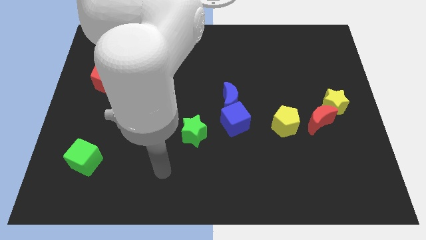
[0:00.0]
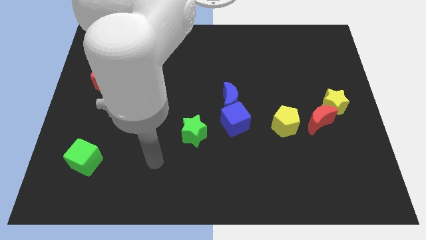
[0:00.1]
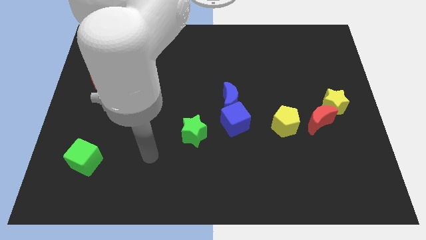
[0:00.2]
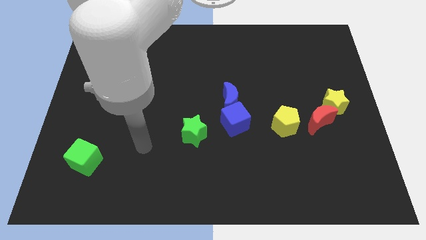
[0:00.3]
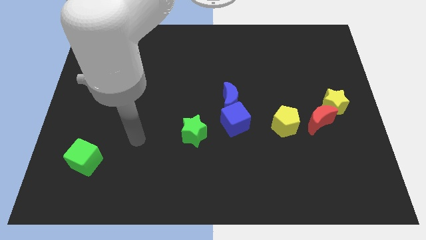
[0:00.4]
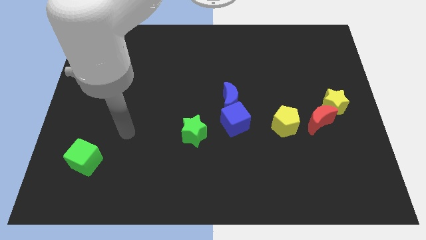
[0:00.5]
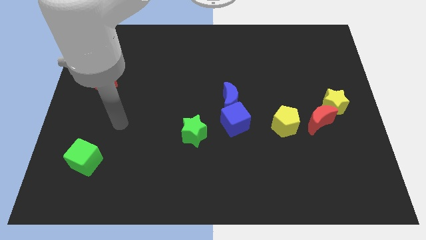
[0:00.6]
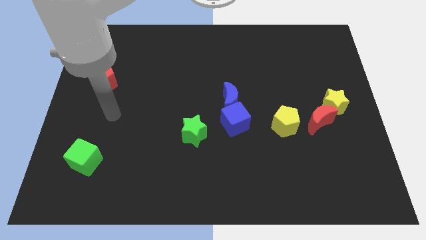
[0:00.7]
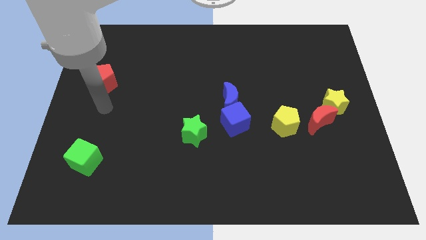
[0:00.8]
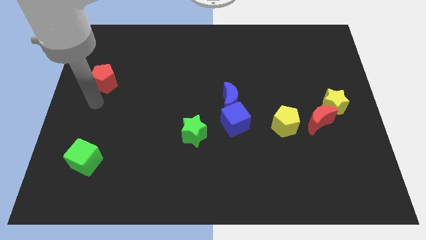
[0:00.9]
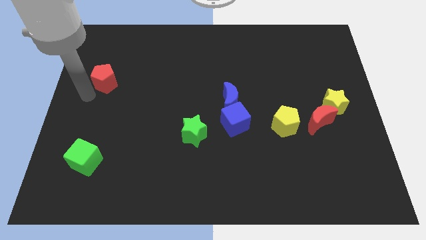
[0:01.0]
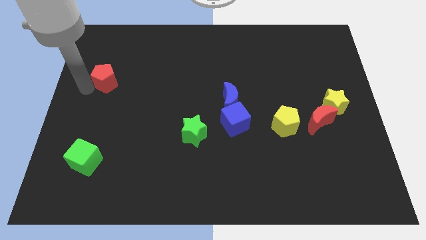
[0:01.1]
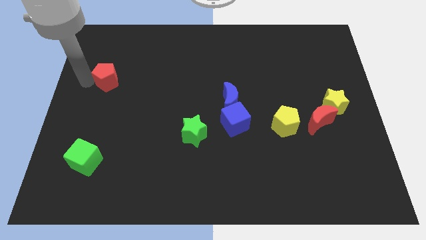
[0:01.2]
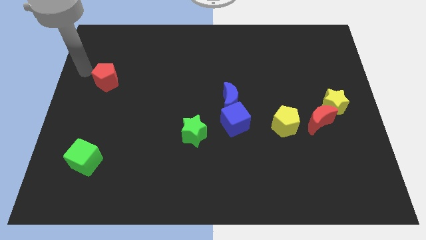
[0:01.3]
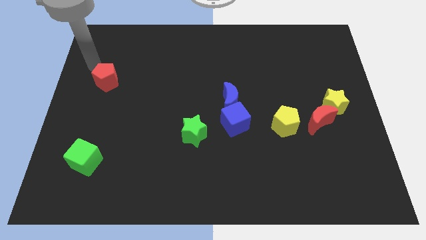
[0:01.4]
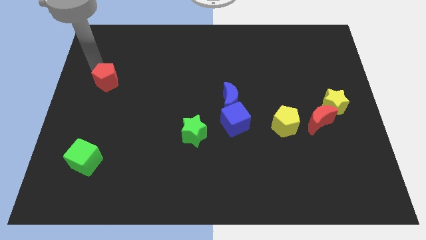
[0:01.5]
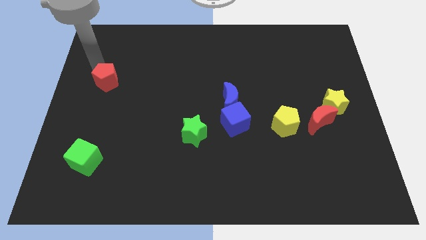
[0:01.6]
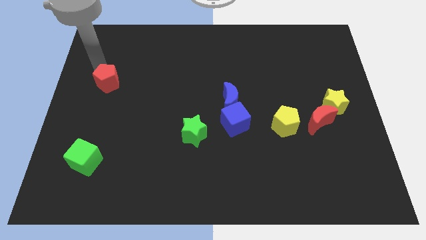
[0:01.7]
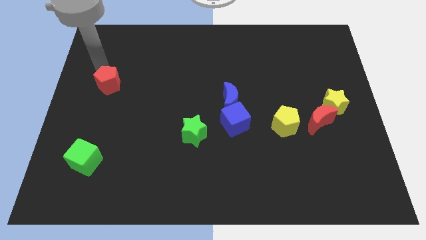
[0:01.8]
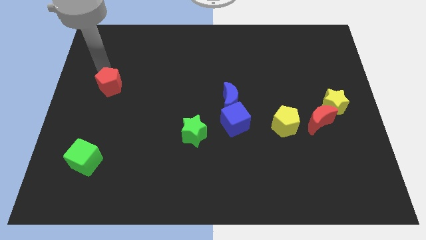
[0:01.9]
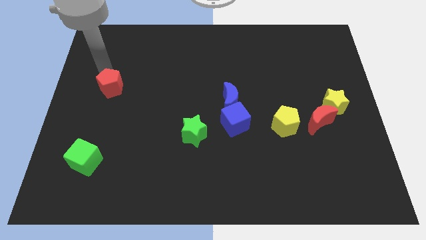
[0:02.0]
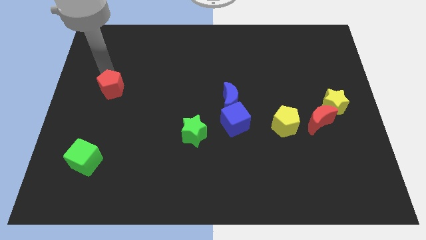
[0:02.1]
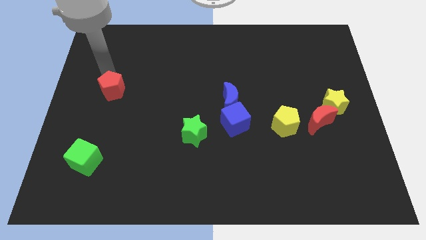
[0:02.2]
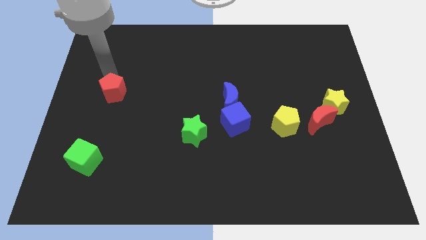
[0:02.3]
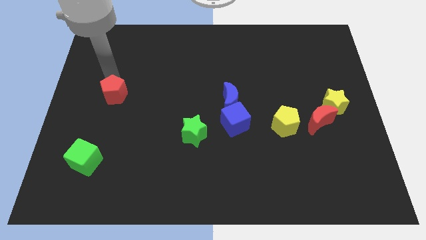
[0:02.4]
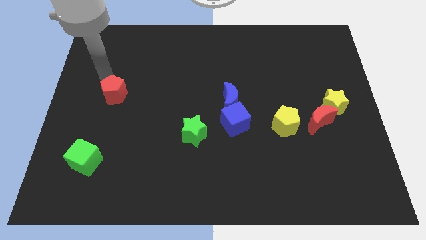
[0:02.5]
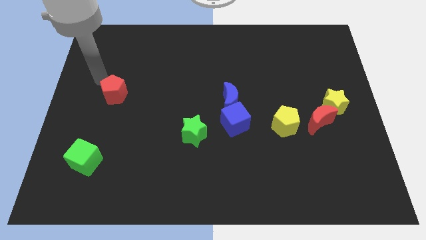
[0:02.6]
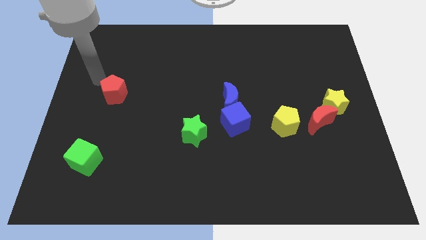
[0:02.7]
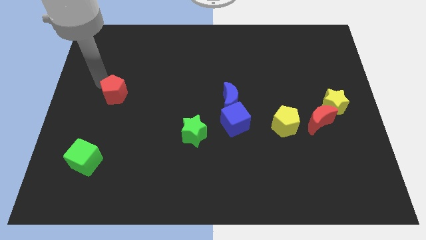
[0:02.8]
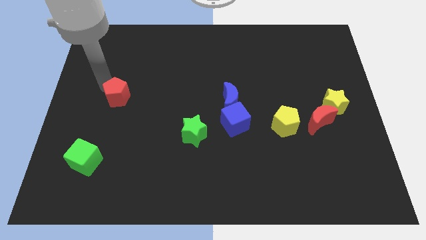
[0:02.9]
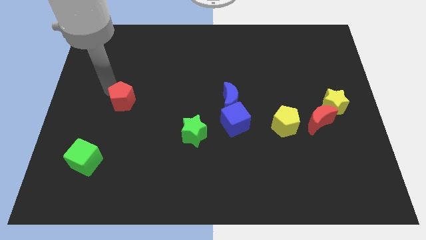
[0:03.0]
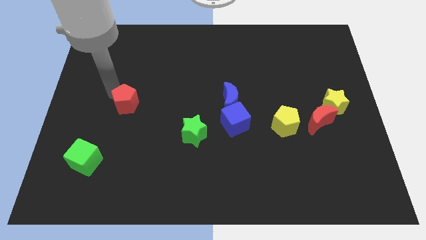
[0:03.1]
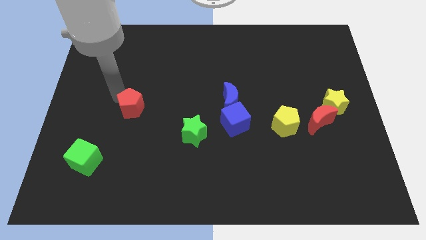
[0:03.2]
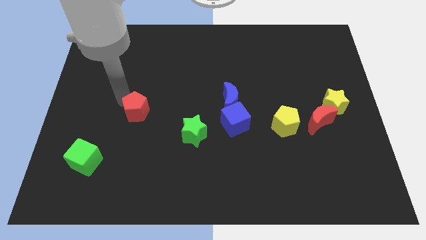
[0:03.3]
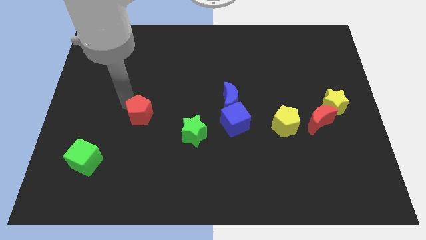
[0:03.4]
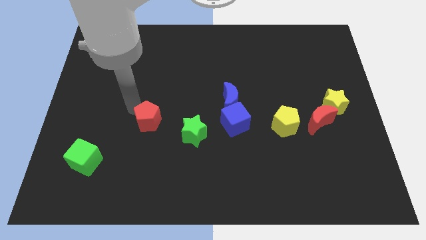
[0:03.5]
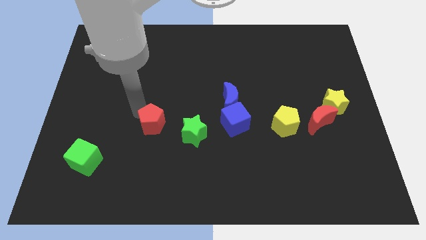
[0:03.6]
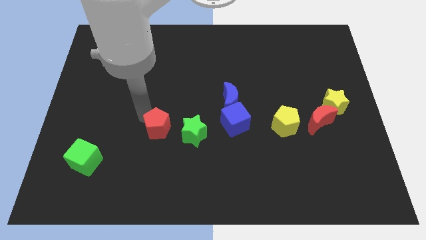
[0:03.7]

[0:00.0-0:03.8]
slide the red pentagon diagonally down and right

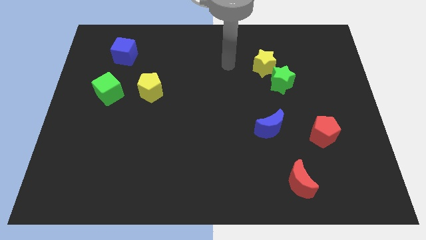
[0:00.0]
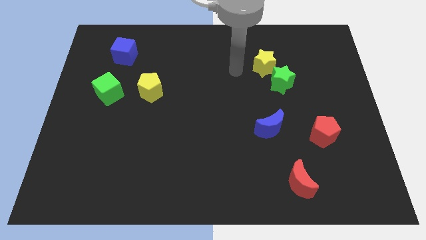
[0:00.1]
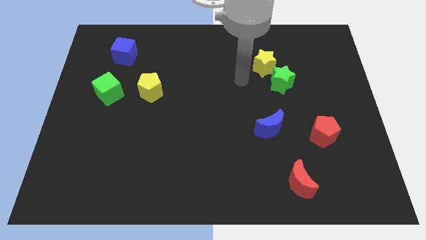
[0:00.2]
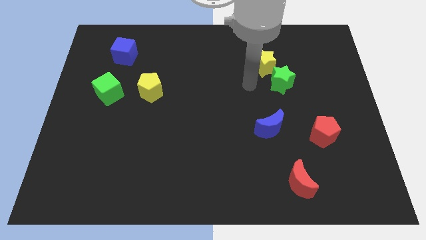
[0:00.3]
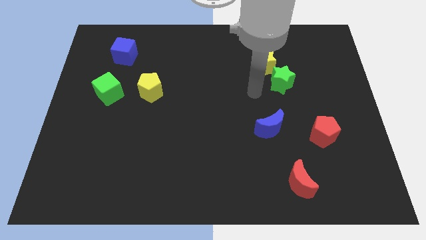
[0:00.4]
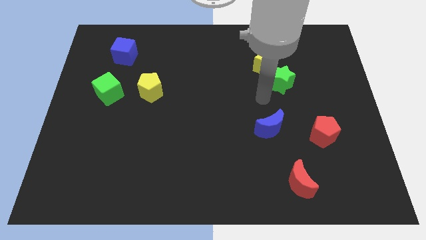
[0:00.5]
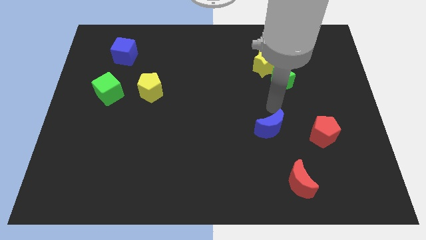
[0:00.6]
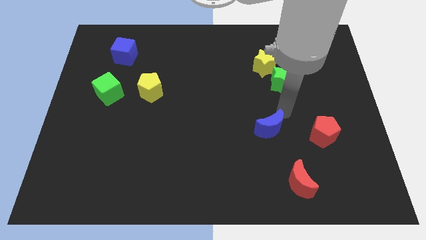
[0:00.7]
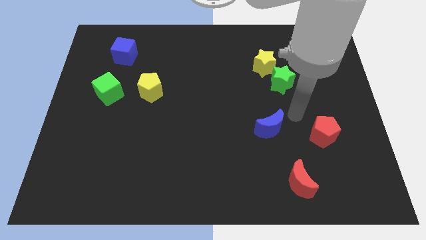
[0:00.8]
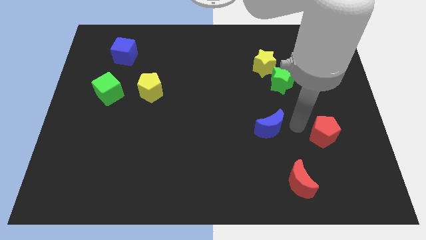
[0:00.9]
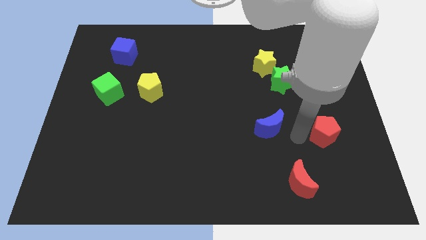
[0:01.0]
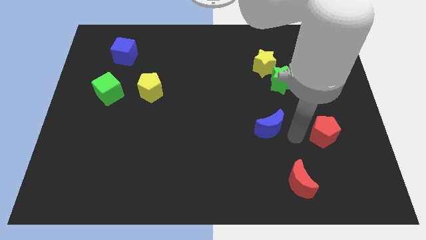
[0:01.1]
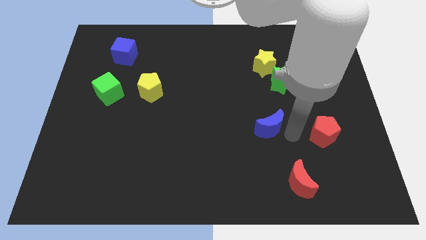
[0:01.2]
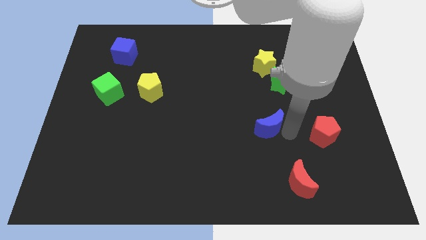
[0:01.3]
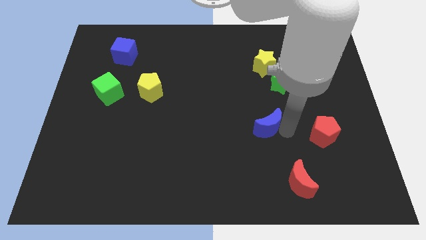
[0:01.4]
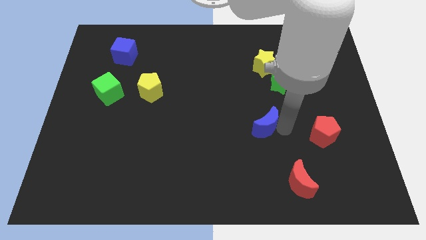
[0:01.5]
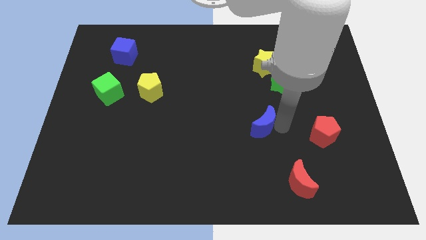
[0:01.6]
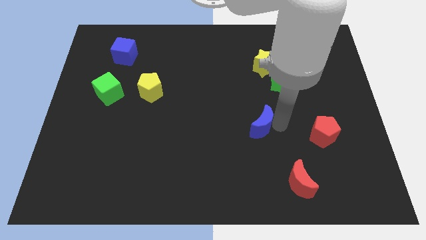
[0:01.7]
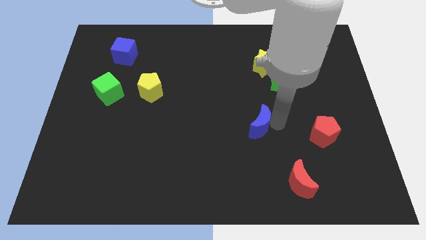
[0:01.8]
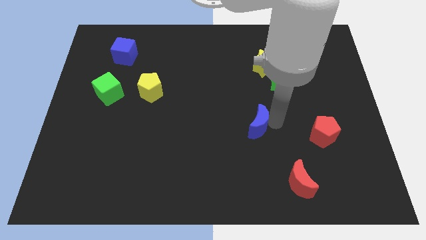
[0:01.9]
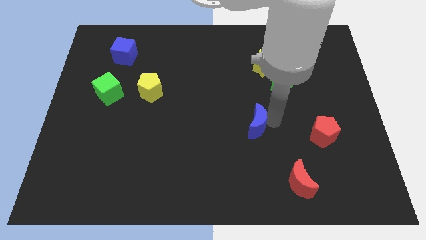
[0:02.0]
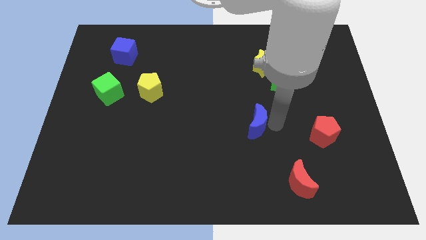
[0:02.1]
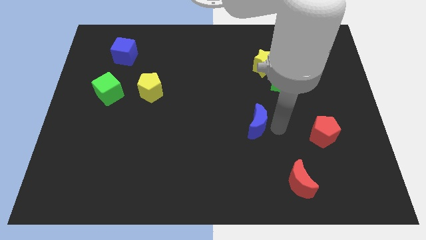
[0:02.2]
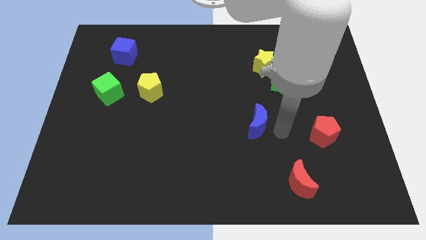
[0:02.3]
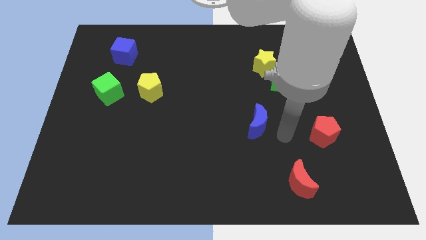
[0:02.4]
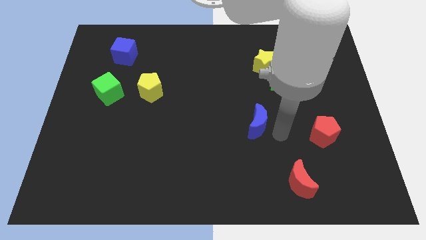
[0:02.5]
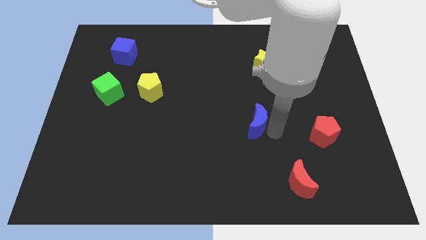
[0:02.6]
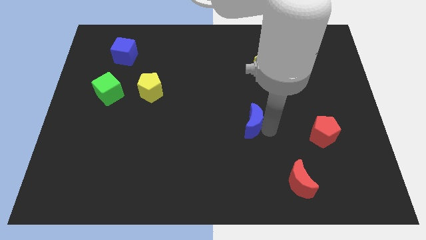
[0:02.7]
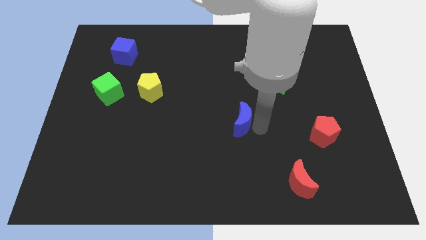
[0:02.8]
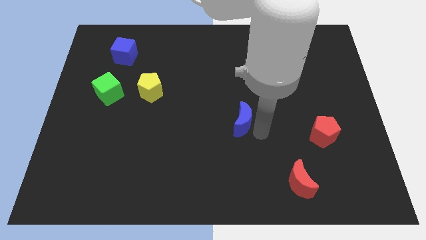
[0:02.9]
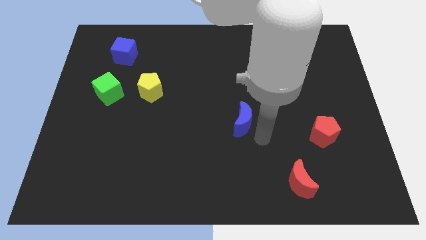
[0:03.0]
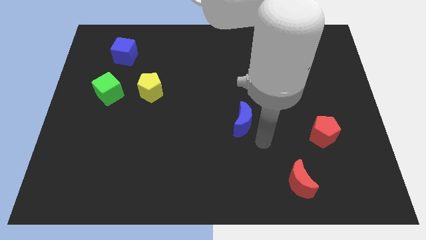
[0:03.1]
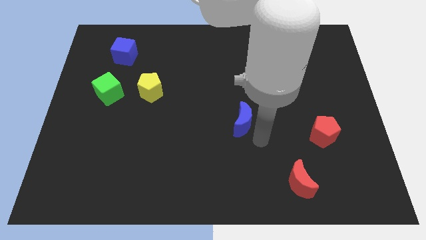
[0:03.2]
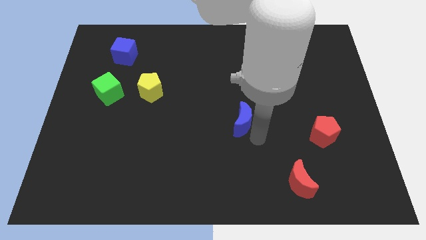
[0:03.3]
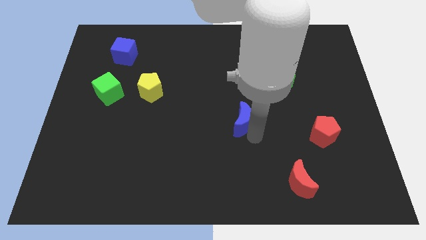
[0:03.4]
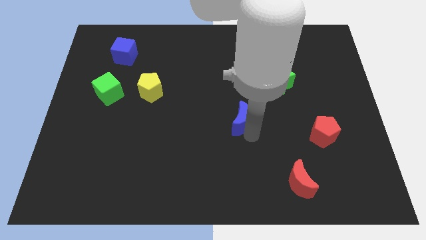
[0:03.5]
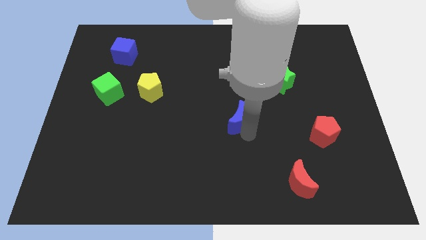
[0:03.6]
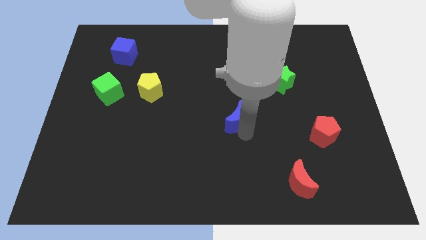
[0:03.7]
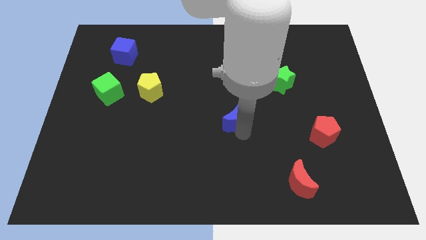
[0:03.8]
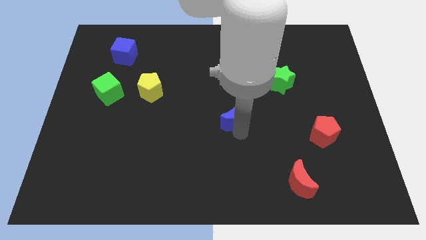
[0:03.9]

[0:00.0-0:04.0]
slide the blue moon up and to the left somewhat

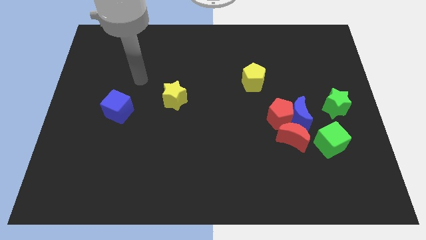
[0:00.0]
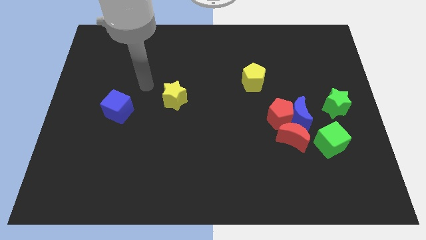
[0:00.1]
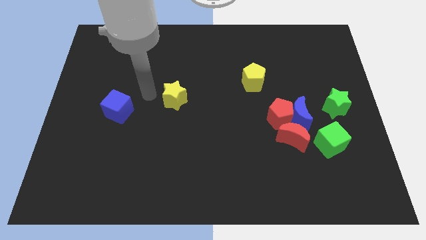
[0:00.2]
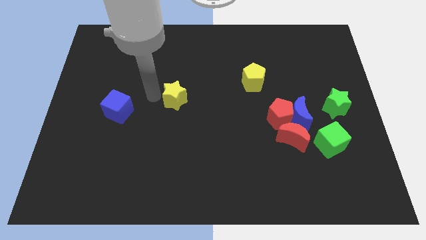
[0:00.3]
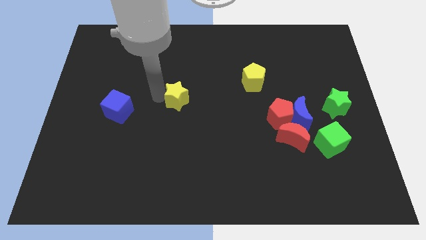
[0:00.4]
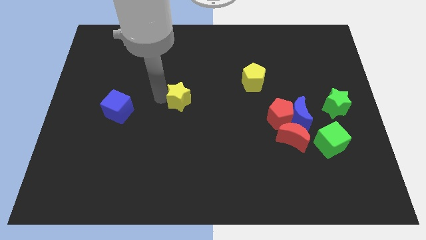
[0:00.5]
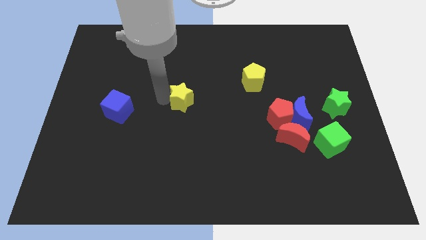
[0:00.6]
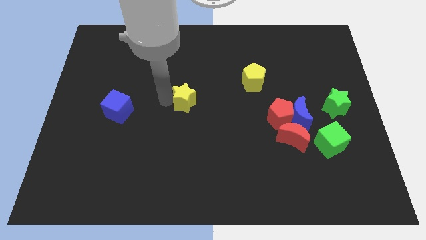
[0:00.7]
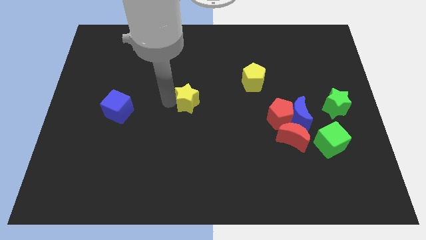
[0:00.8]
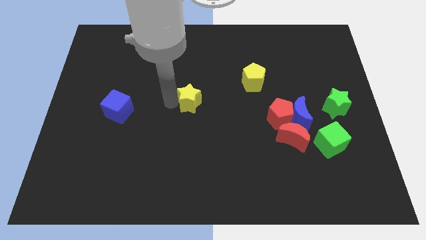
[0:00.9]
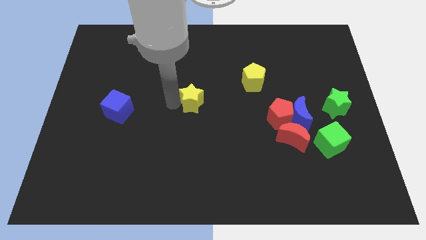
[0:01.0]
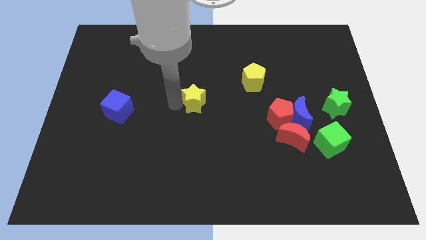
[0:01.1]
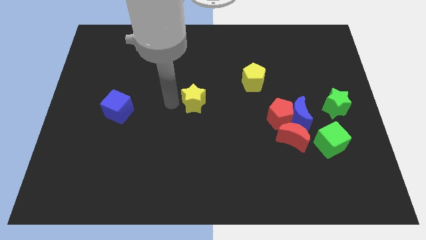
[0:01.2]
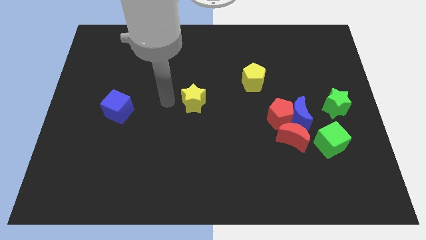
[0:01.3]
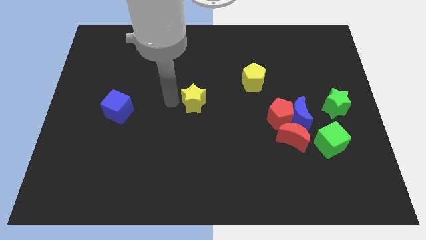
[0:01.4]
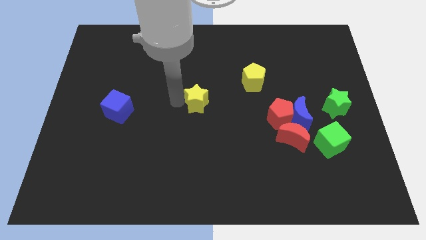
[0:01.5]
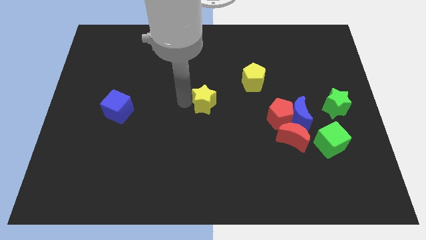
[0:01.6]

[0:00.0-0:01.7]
slightly move the yellow star to the right
